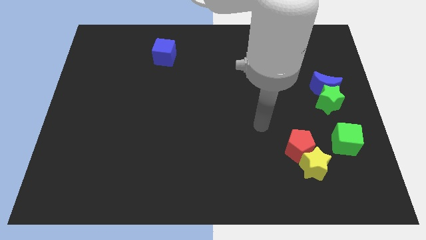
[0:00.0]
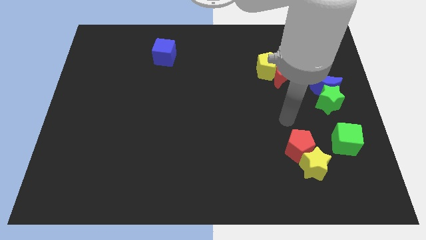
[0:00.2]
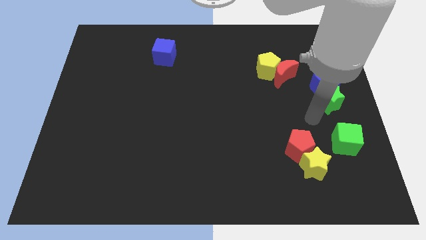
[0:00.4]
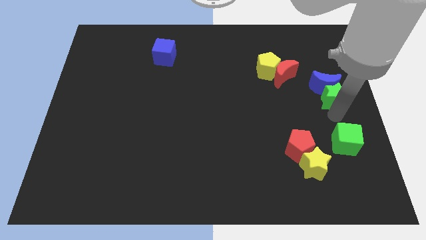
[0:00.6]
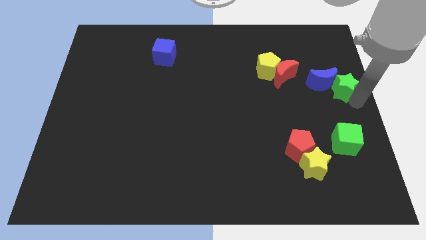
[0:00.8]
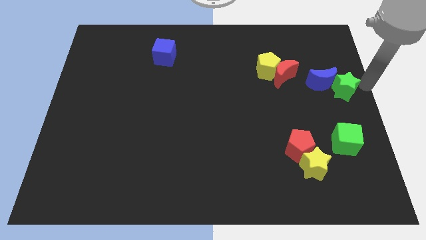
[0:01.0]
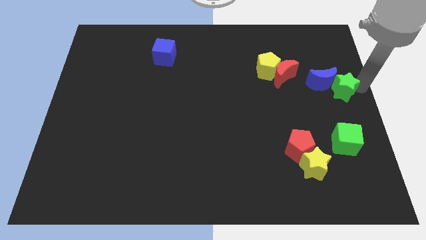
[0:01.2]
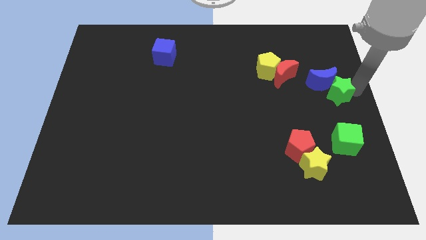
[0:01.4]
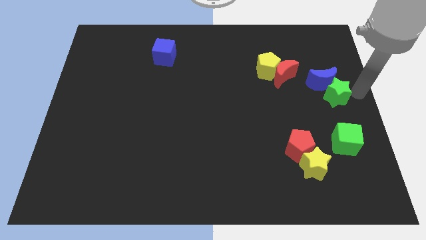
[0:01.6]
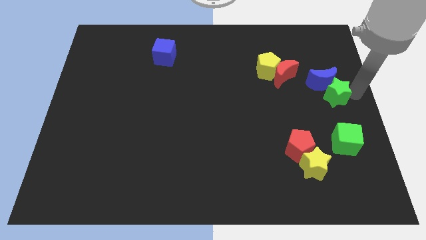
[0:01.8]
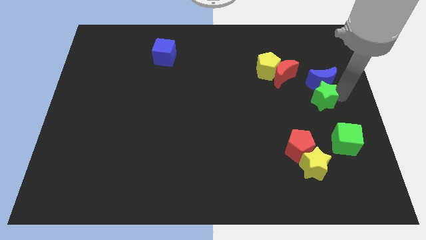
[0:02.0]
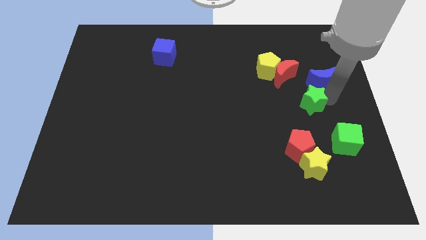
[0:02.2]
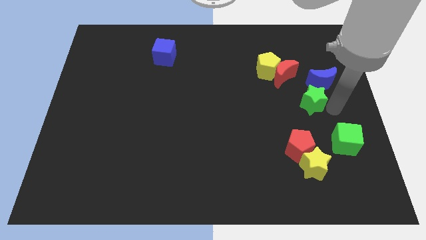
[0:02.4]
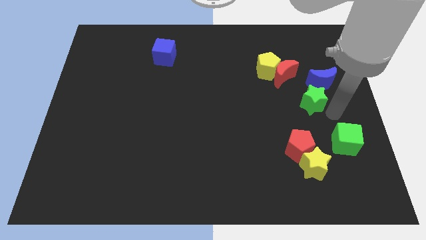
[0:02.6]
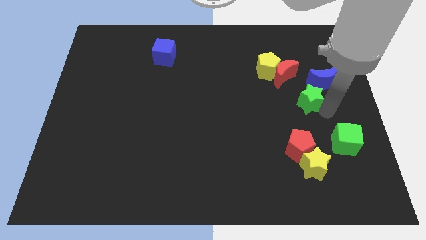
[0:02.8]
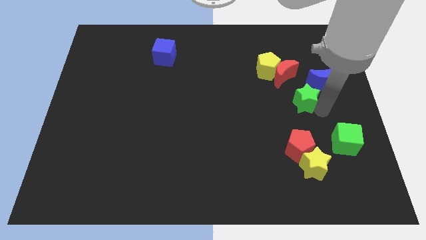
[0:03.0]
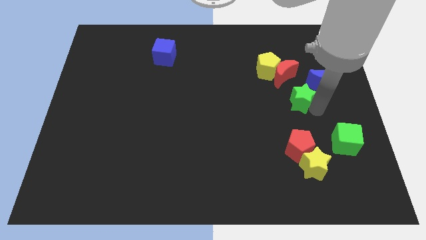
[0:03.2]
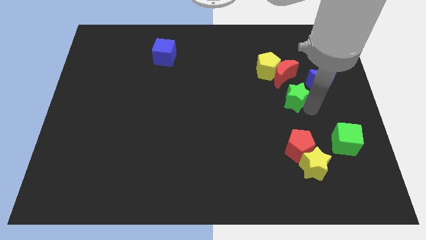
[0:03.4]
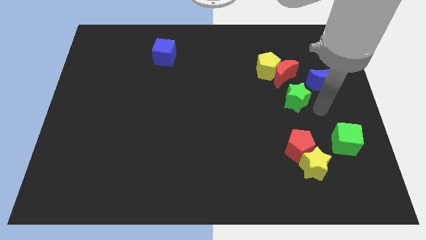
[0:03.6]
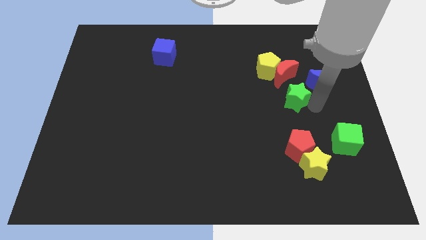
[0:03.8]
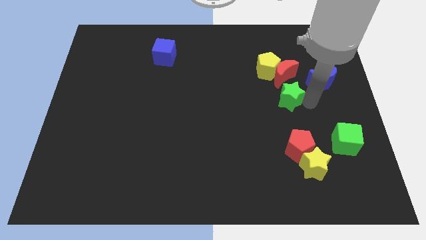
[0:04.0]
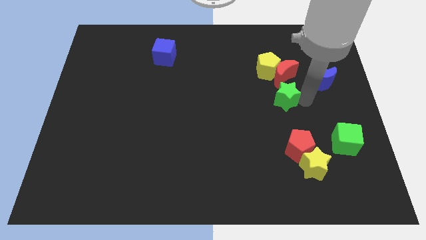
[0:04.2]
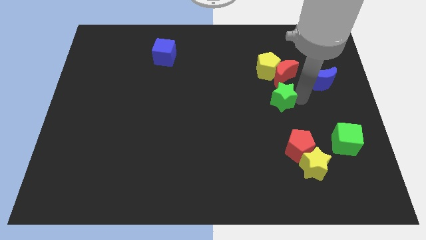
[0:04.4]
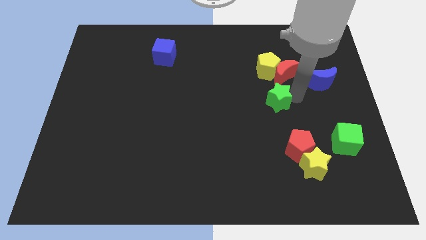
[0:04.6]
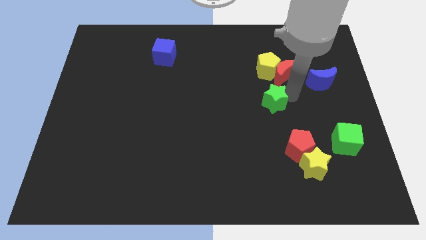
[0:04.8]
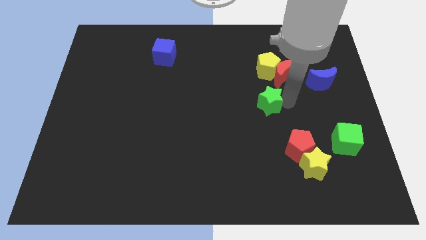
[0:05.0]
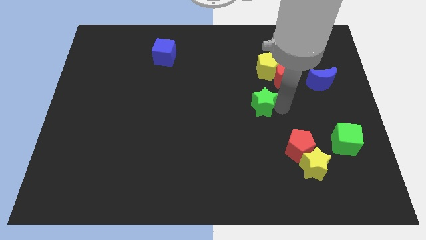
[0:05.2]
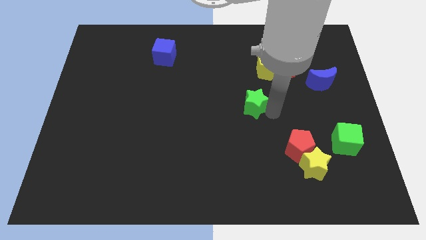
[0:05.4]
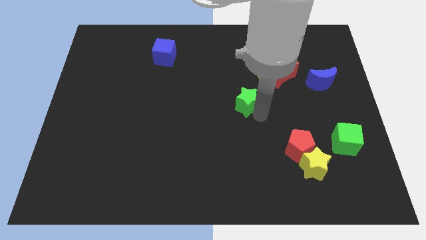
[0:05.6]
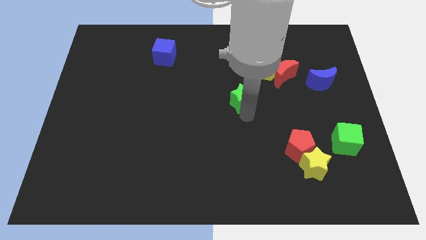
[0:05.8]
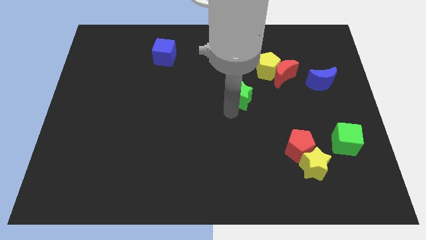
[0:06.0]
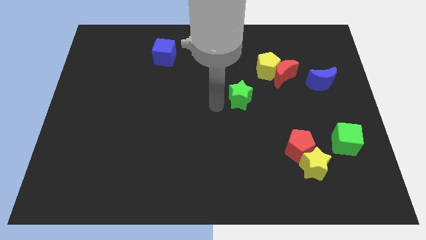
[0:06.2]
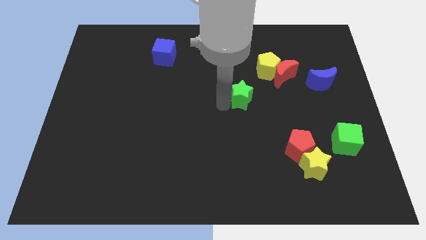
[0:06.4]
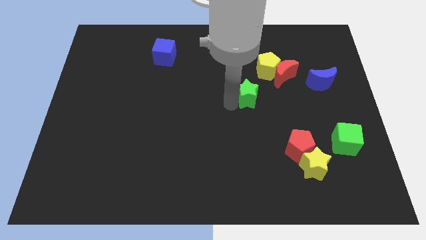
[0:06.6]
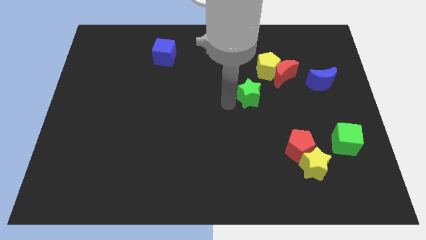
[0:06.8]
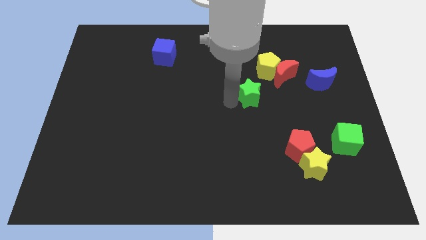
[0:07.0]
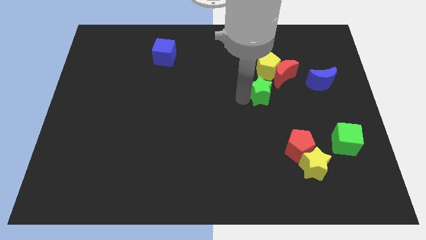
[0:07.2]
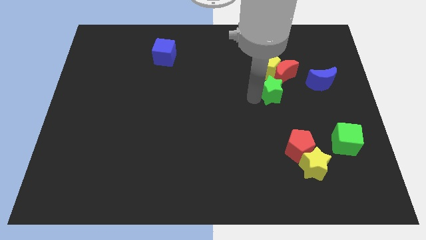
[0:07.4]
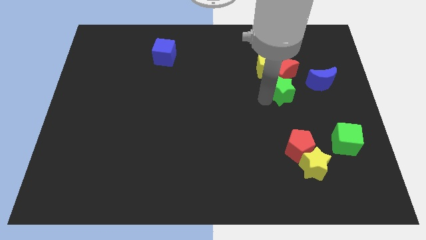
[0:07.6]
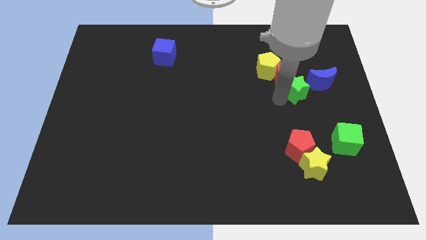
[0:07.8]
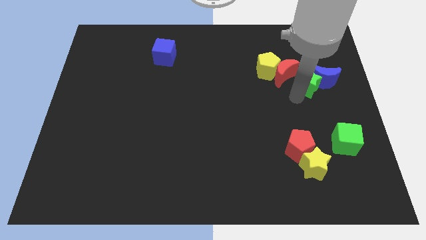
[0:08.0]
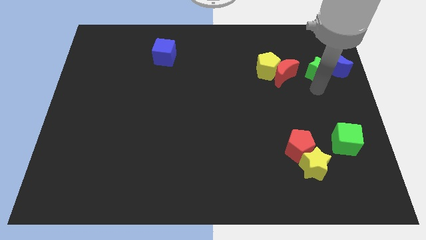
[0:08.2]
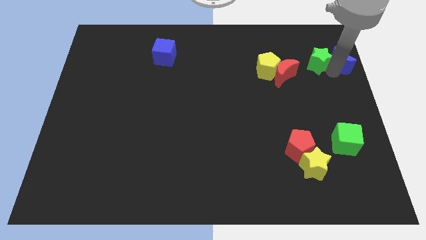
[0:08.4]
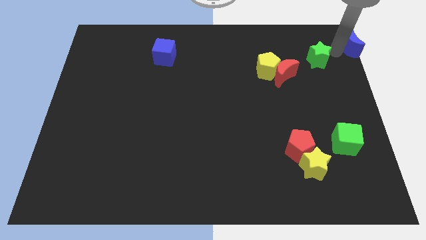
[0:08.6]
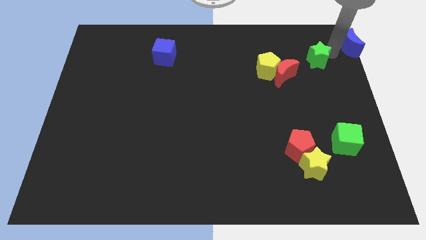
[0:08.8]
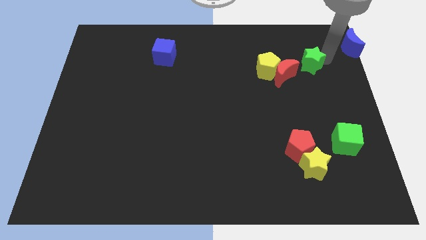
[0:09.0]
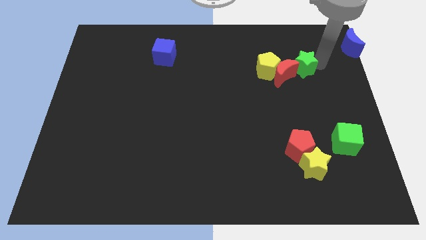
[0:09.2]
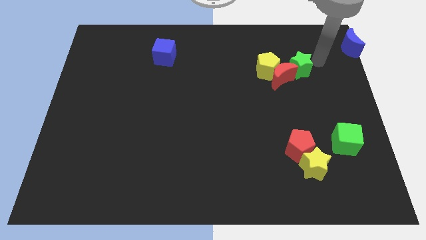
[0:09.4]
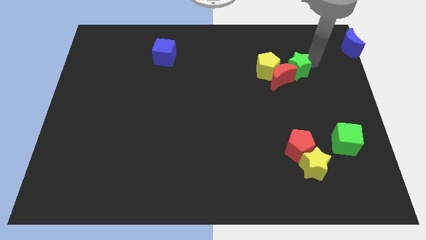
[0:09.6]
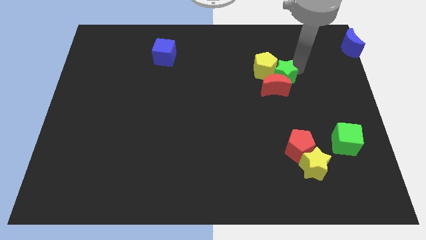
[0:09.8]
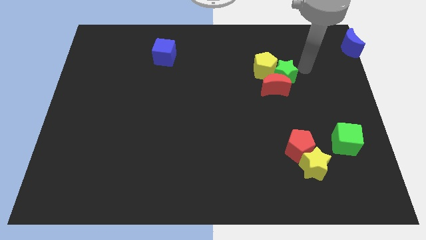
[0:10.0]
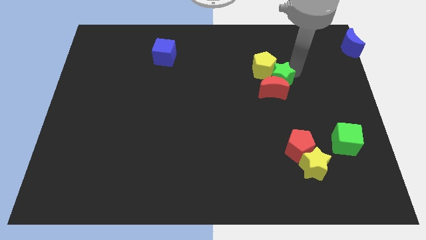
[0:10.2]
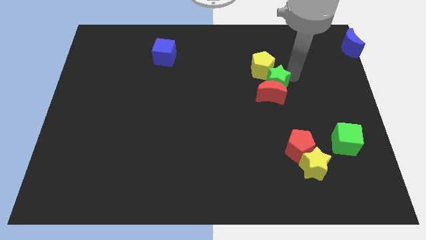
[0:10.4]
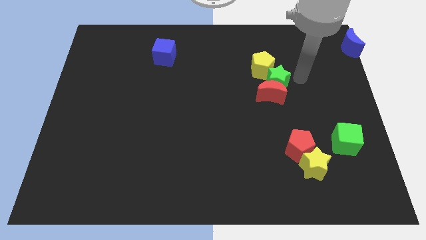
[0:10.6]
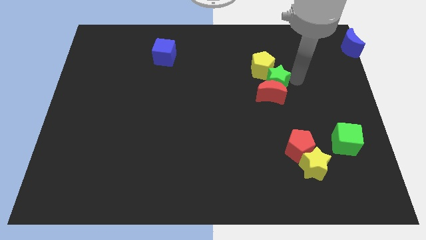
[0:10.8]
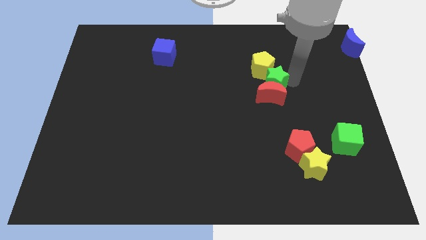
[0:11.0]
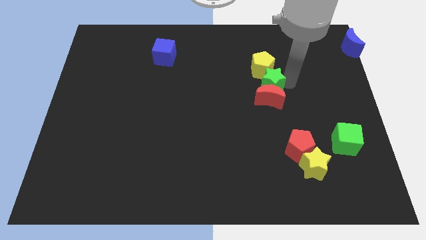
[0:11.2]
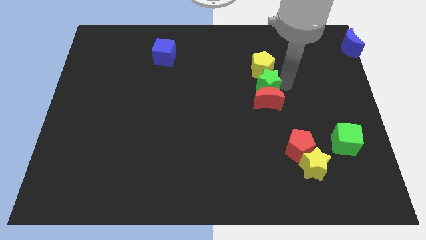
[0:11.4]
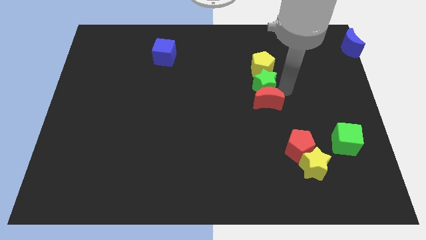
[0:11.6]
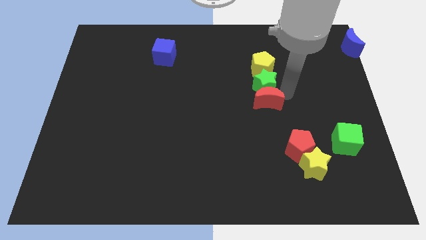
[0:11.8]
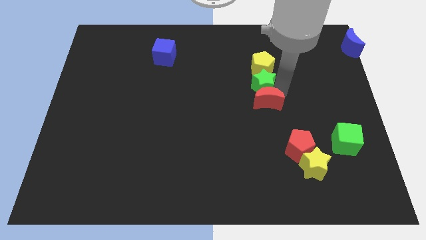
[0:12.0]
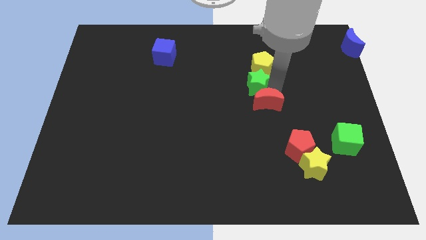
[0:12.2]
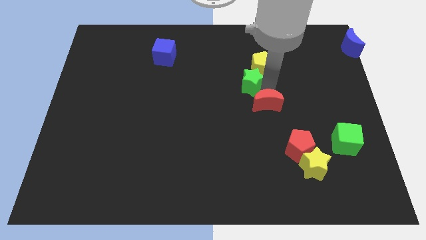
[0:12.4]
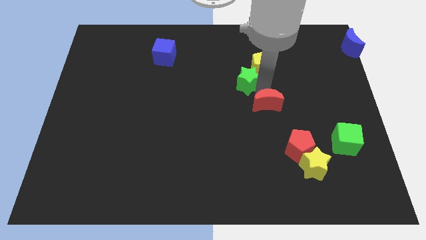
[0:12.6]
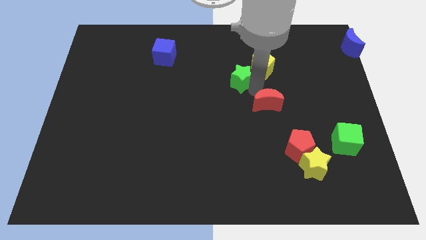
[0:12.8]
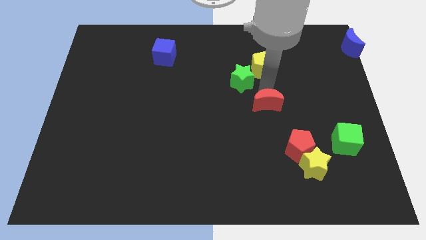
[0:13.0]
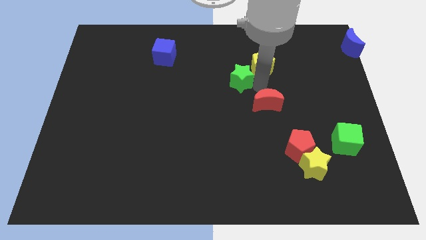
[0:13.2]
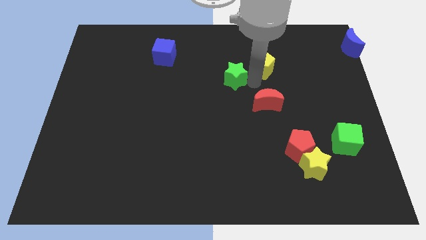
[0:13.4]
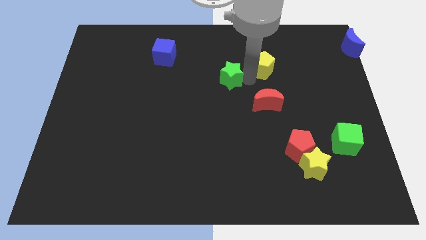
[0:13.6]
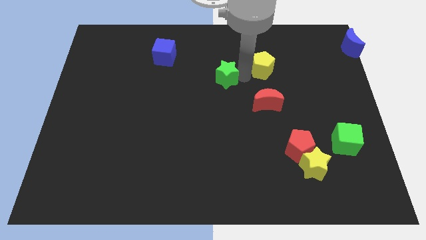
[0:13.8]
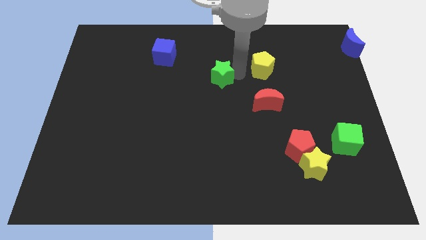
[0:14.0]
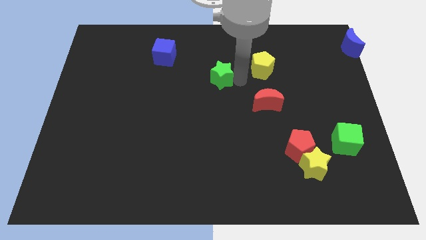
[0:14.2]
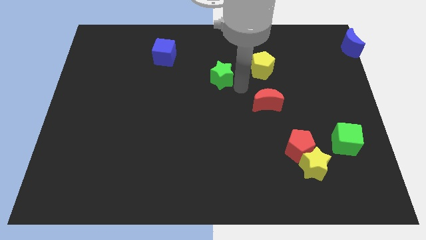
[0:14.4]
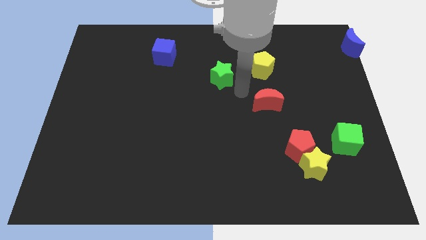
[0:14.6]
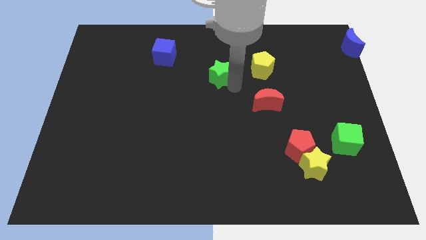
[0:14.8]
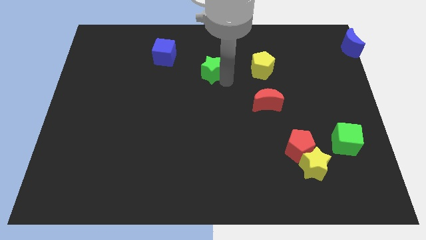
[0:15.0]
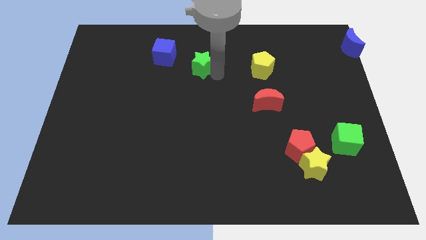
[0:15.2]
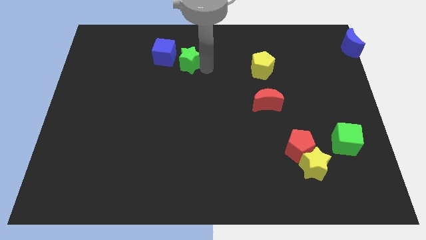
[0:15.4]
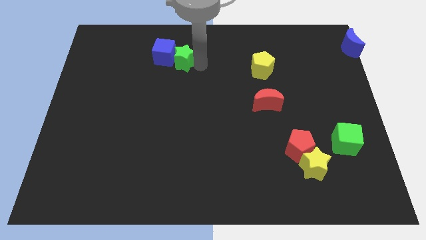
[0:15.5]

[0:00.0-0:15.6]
move the green star to the blue cube
